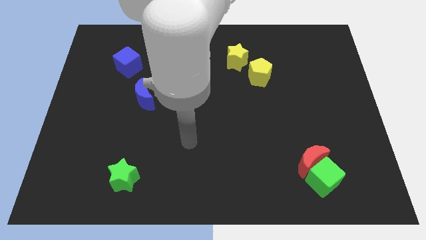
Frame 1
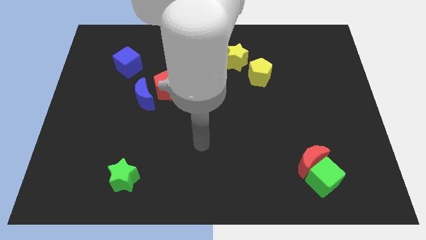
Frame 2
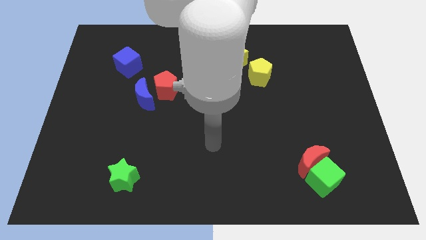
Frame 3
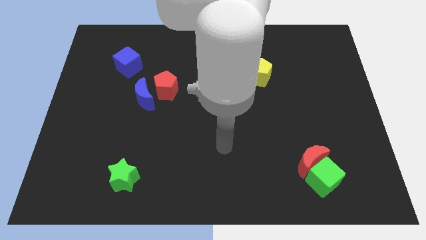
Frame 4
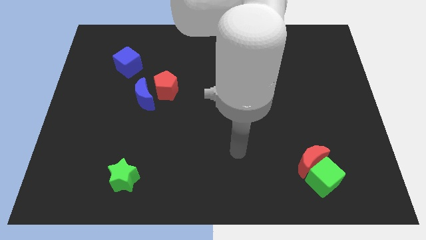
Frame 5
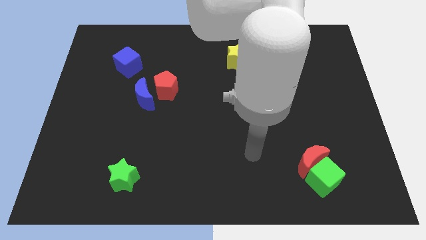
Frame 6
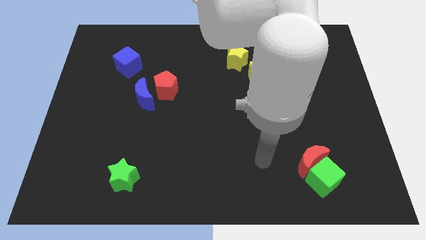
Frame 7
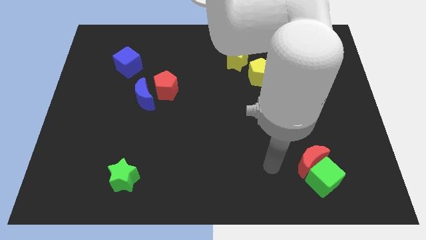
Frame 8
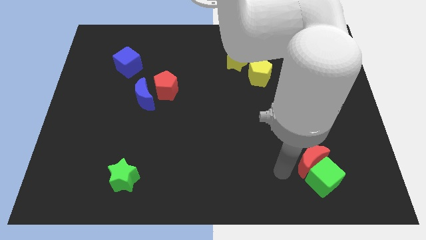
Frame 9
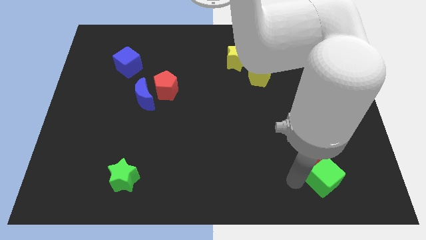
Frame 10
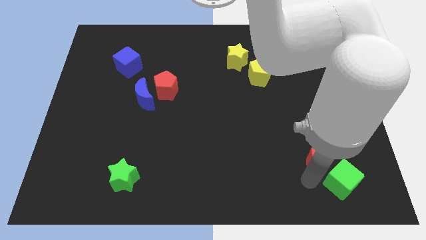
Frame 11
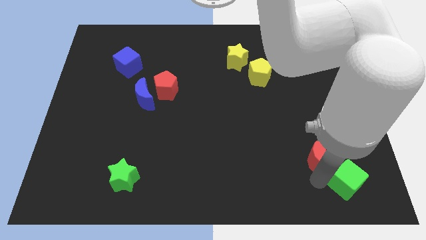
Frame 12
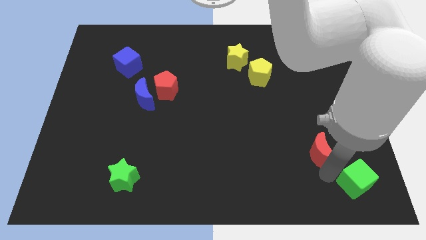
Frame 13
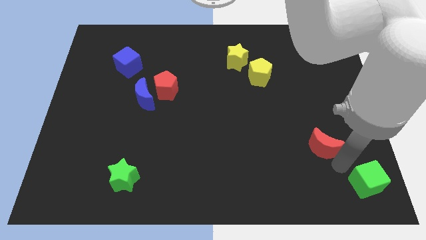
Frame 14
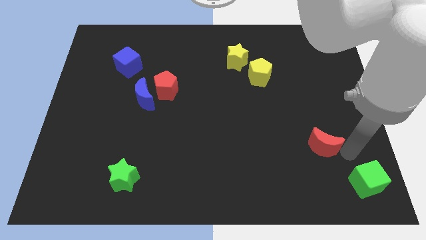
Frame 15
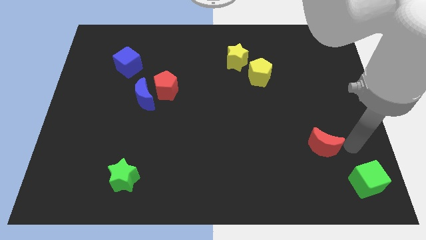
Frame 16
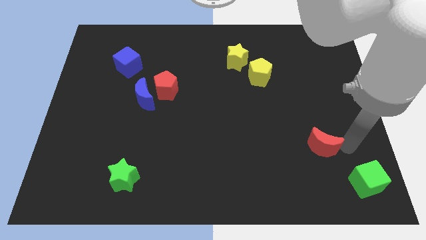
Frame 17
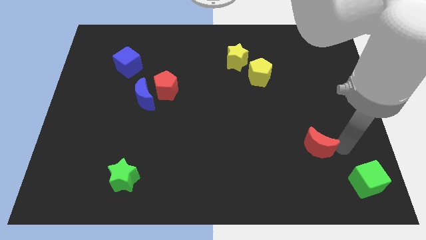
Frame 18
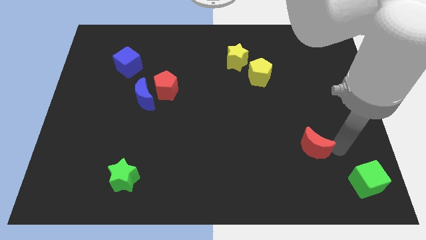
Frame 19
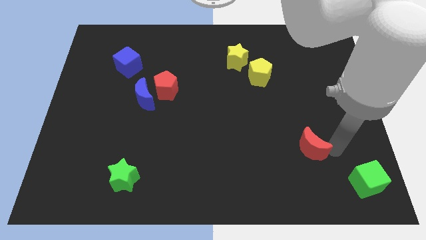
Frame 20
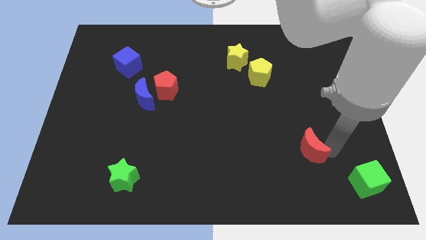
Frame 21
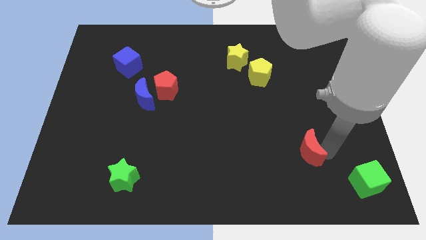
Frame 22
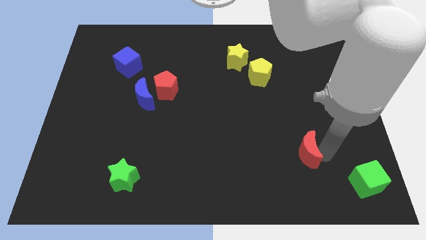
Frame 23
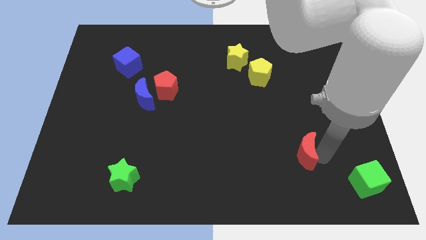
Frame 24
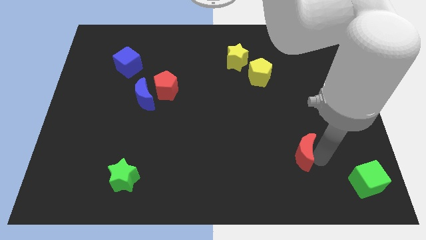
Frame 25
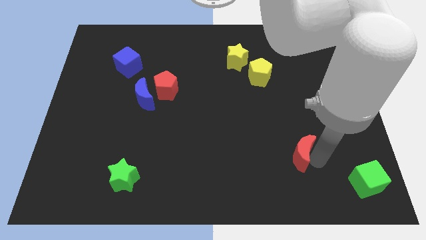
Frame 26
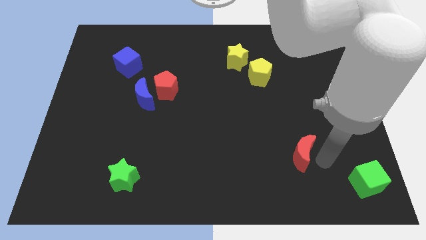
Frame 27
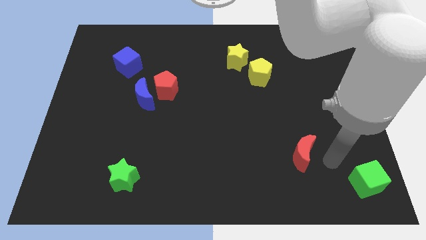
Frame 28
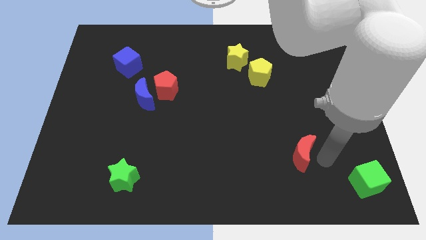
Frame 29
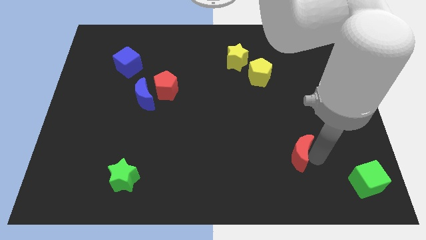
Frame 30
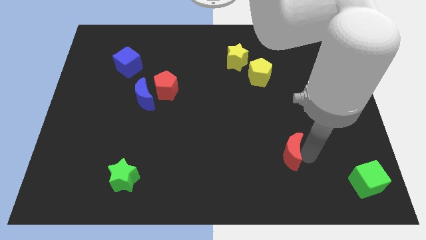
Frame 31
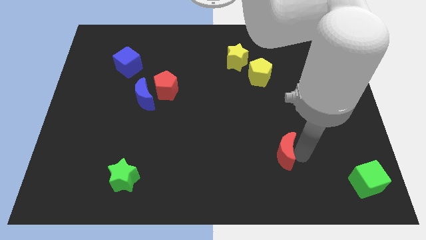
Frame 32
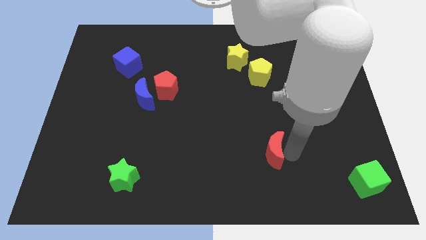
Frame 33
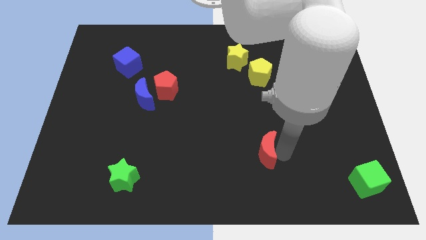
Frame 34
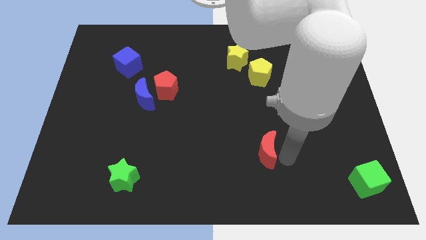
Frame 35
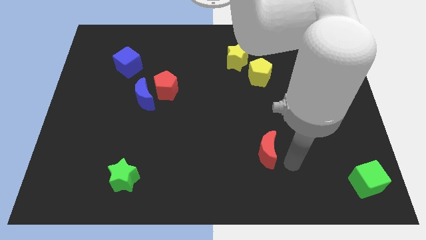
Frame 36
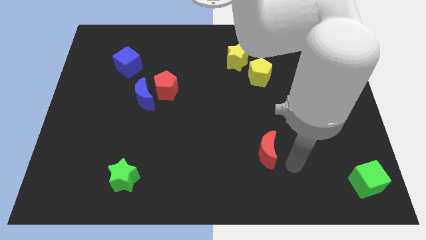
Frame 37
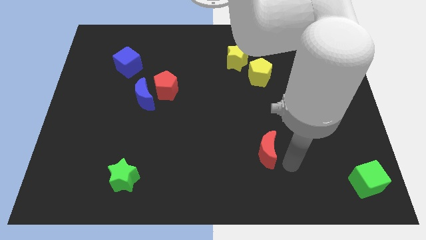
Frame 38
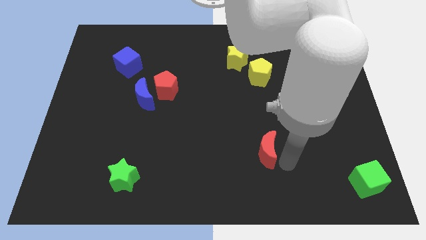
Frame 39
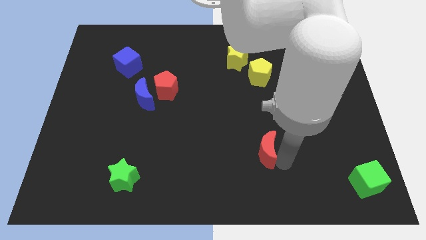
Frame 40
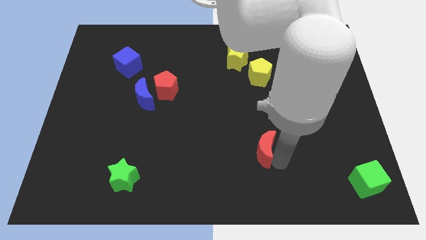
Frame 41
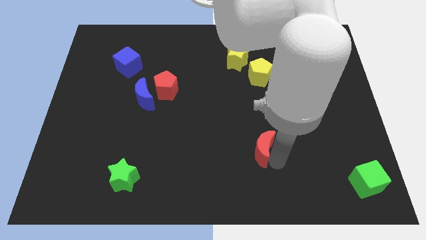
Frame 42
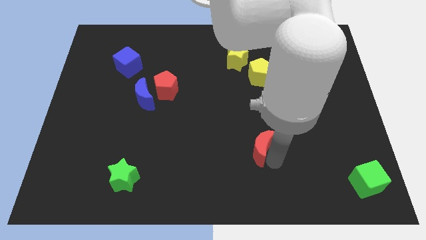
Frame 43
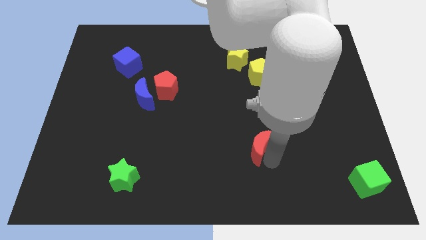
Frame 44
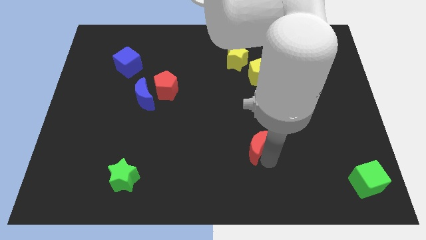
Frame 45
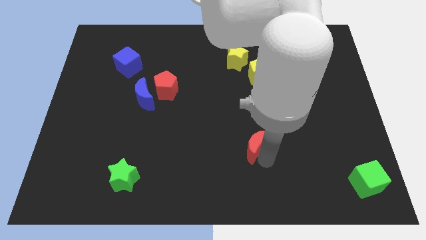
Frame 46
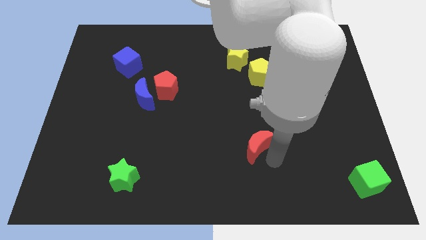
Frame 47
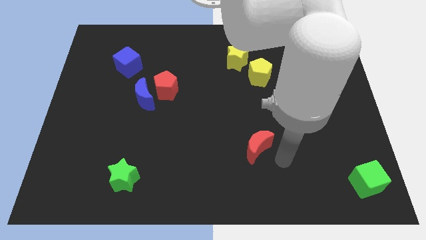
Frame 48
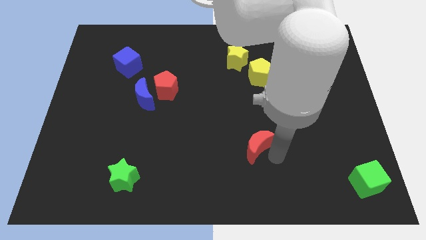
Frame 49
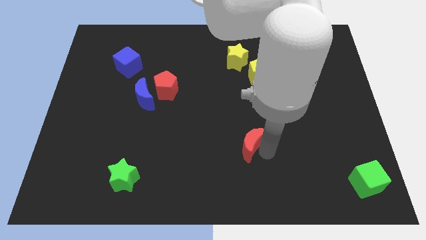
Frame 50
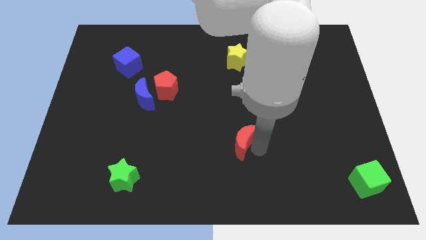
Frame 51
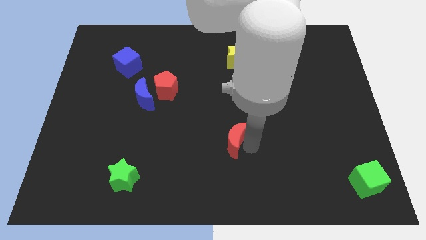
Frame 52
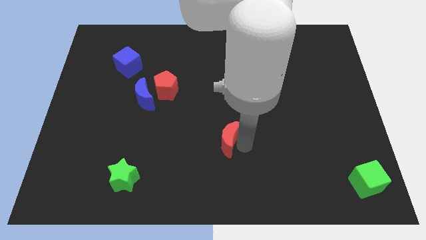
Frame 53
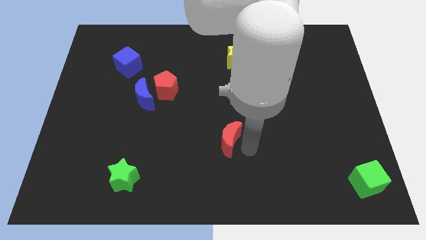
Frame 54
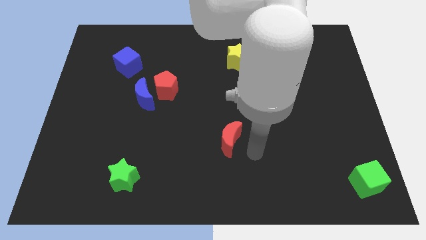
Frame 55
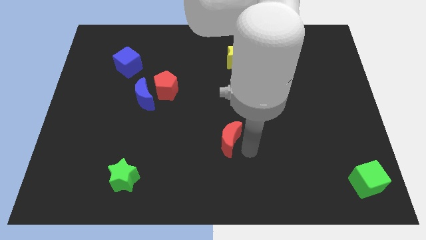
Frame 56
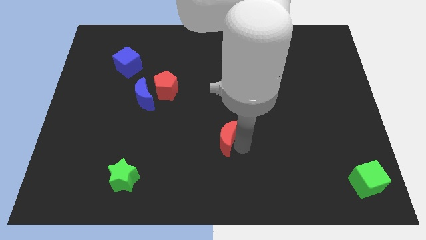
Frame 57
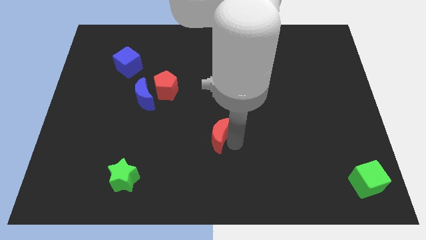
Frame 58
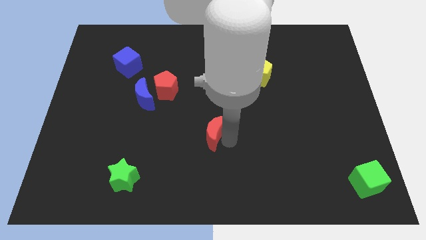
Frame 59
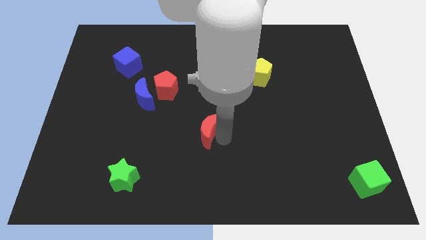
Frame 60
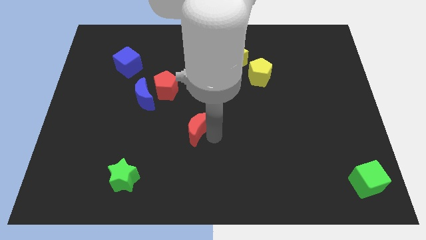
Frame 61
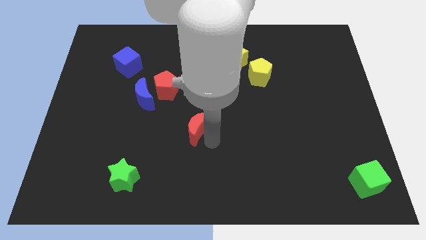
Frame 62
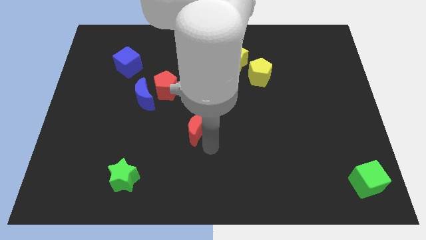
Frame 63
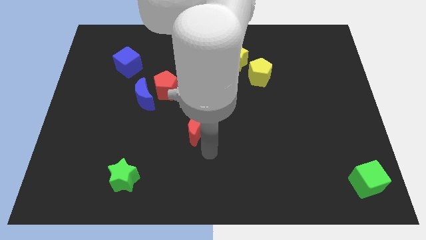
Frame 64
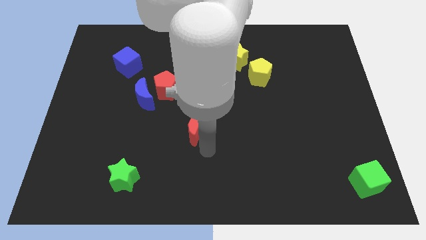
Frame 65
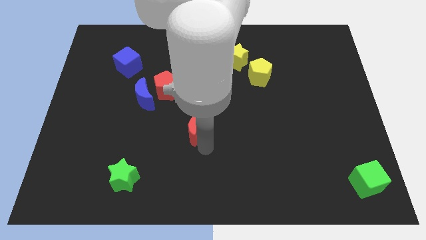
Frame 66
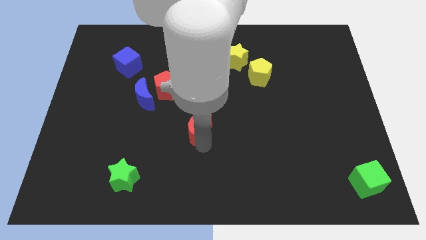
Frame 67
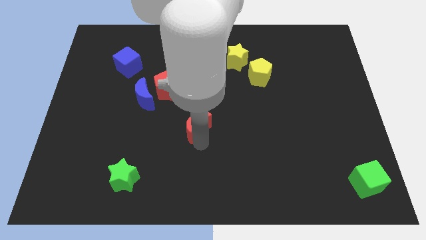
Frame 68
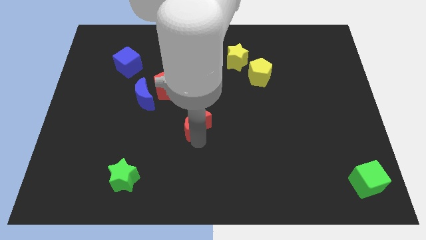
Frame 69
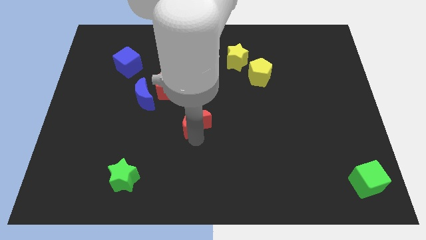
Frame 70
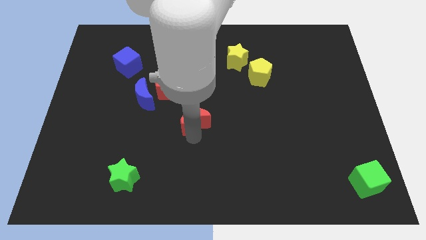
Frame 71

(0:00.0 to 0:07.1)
slide the red moon to the bottom right side of the red pentagon
